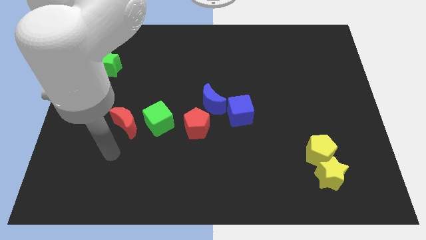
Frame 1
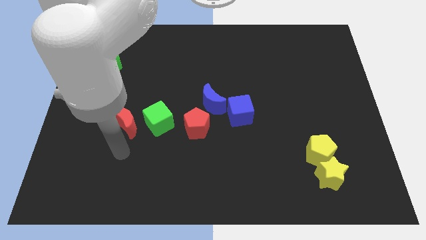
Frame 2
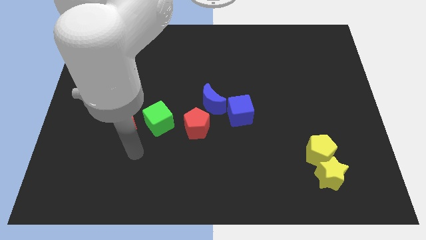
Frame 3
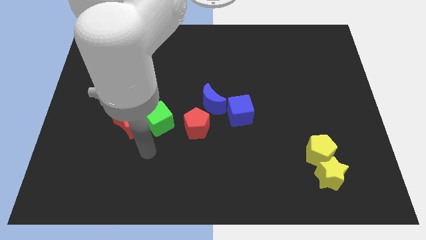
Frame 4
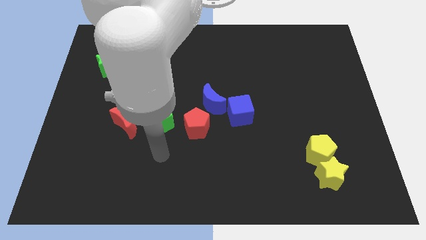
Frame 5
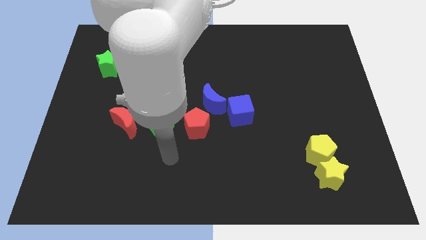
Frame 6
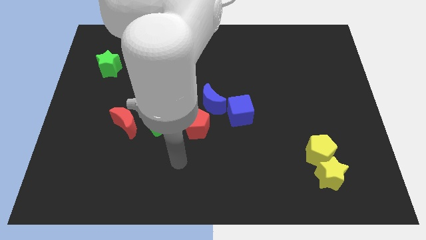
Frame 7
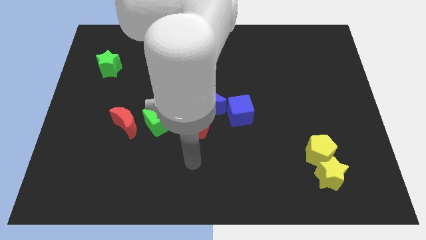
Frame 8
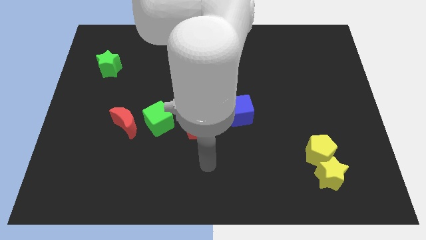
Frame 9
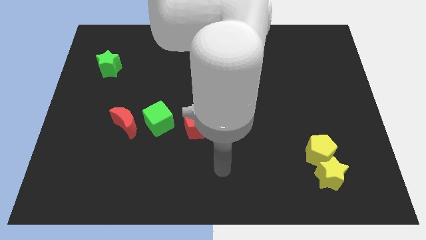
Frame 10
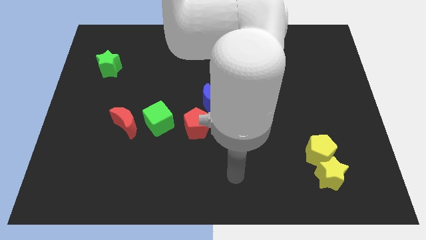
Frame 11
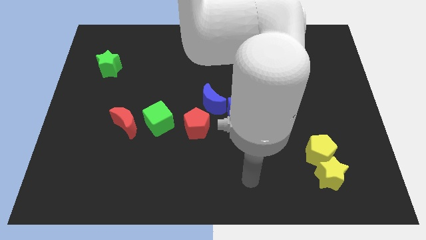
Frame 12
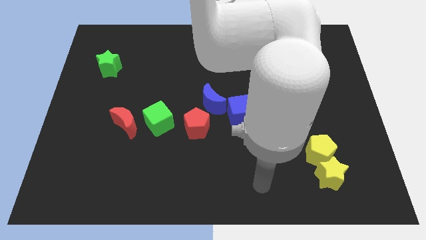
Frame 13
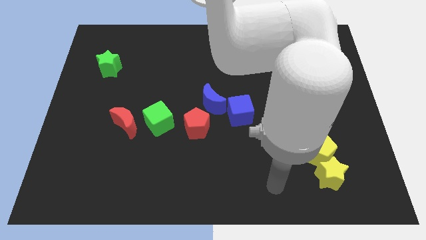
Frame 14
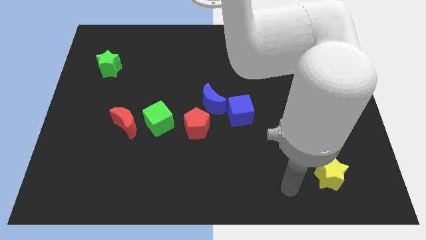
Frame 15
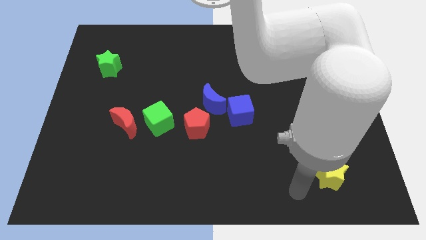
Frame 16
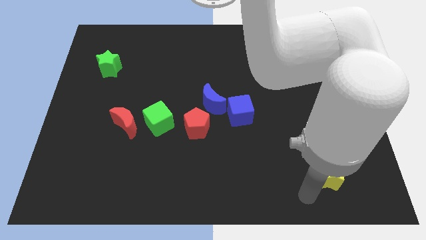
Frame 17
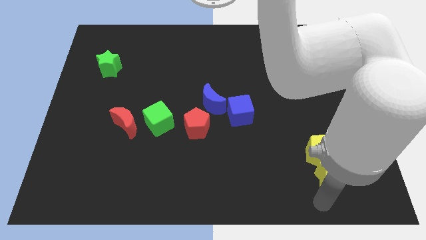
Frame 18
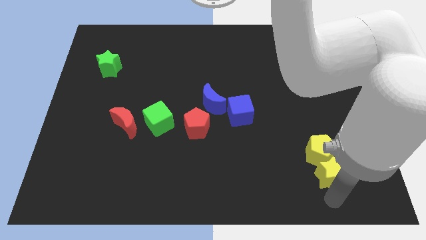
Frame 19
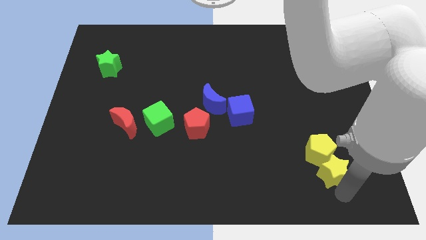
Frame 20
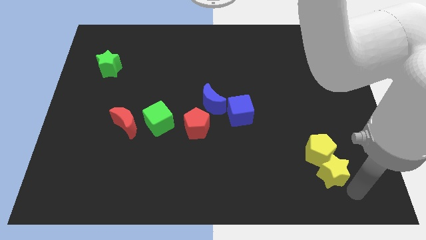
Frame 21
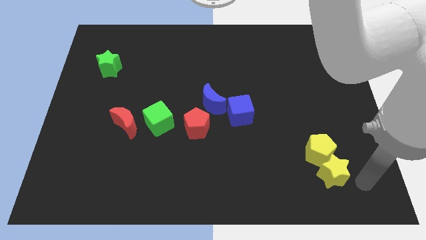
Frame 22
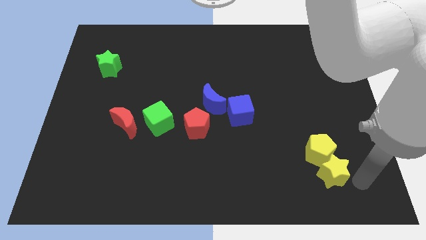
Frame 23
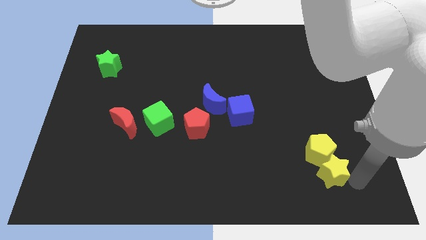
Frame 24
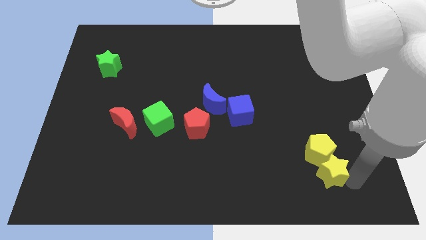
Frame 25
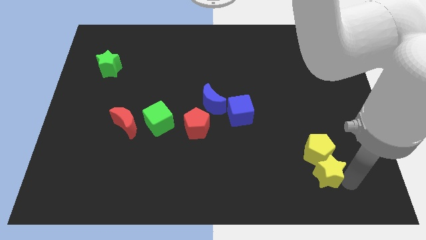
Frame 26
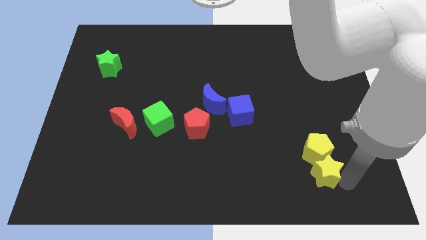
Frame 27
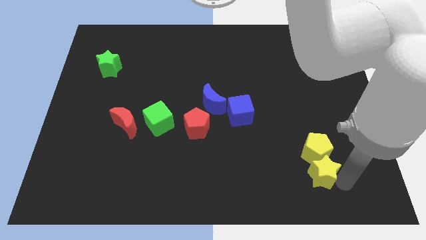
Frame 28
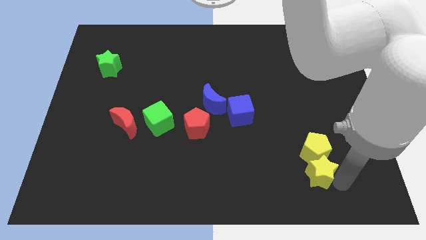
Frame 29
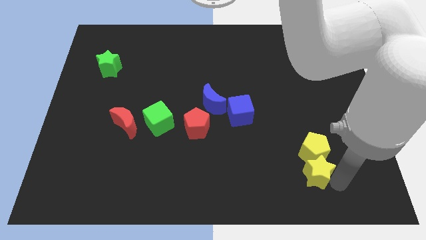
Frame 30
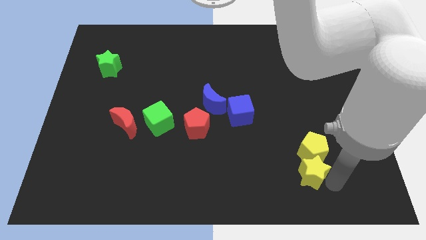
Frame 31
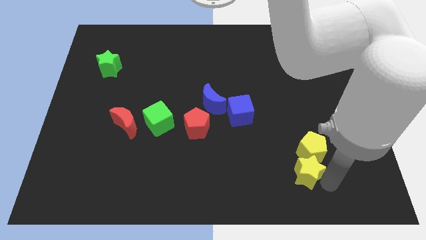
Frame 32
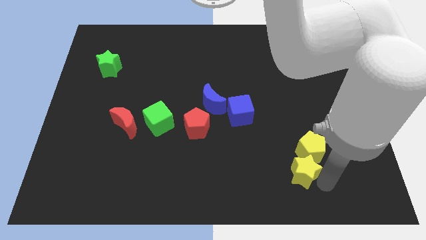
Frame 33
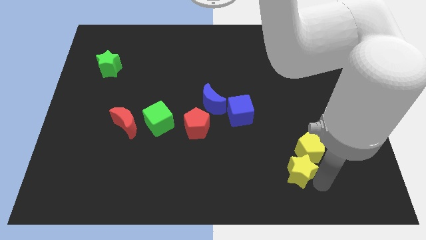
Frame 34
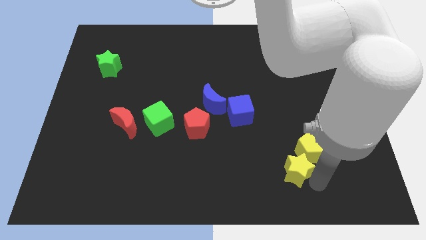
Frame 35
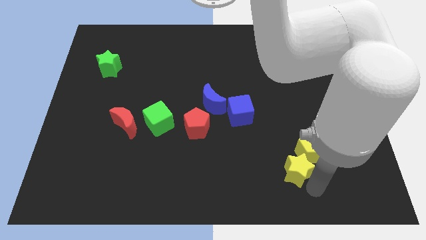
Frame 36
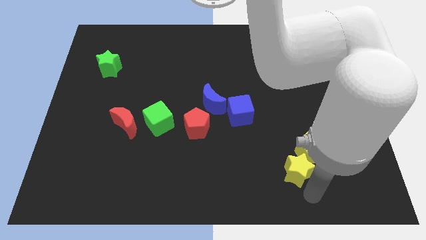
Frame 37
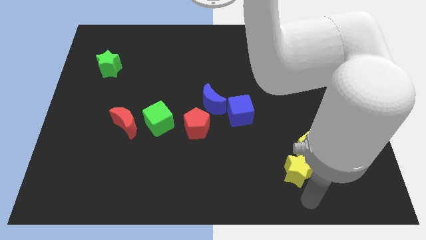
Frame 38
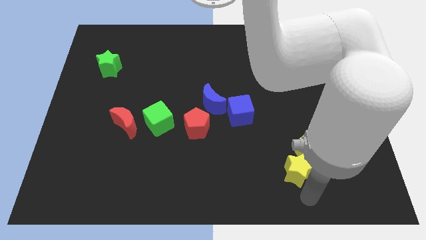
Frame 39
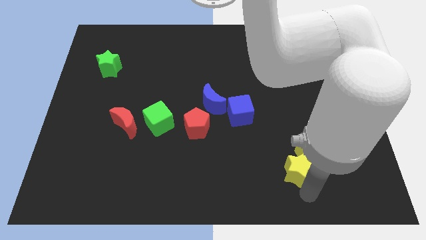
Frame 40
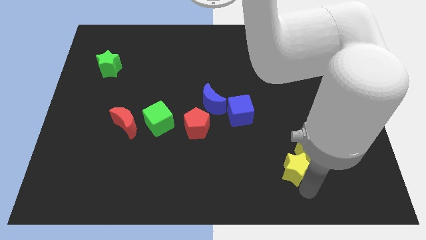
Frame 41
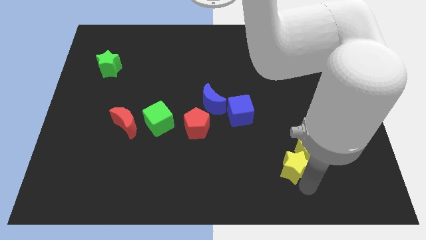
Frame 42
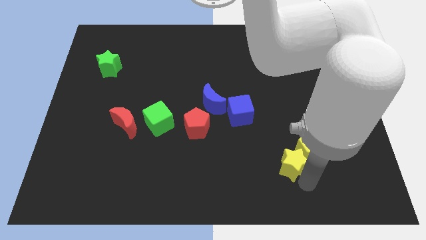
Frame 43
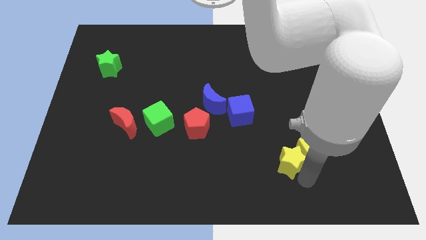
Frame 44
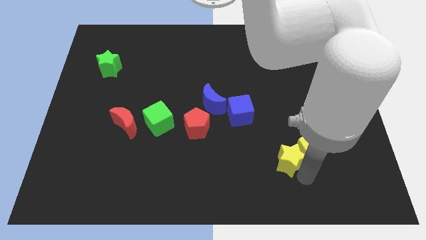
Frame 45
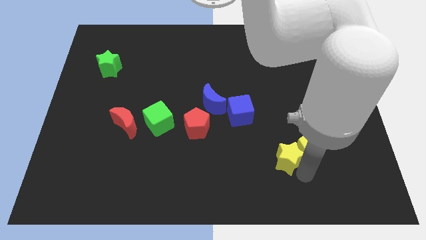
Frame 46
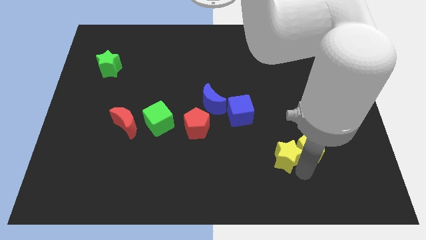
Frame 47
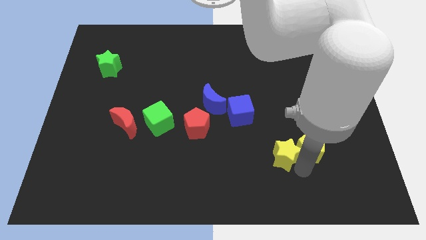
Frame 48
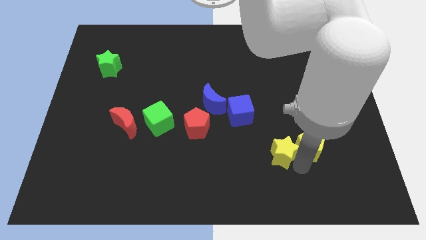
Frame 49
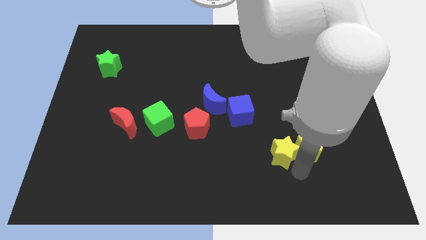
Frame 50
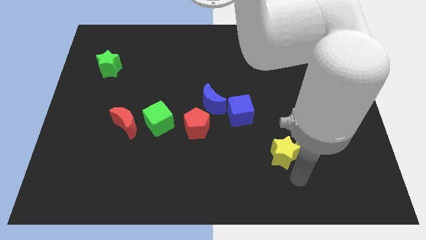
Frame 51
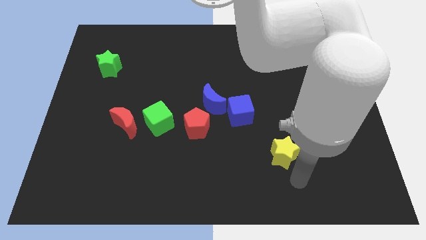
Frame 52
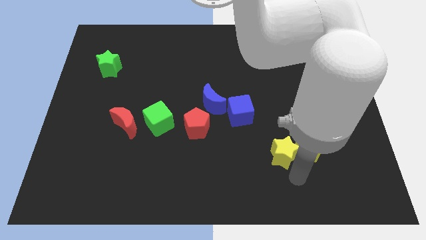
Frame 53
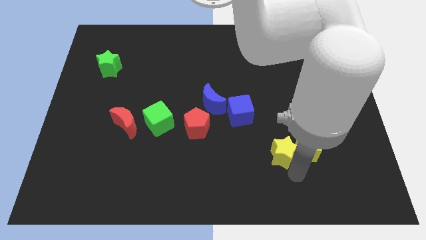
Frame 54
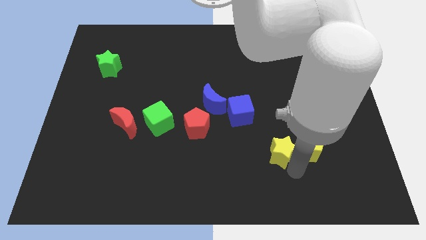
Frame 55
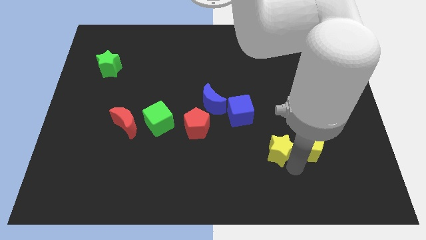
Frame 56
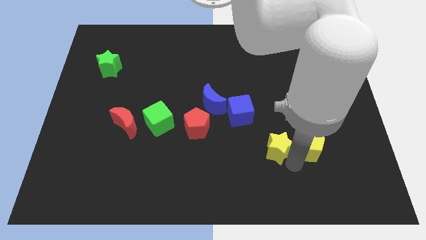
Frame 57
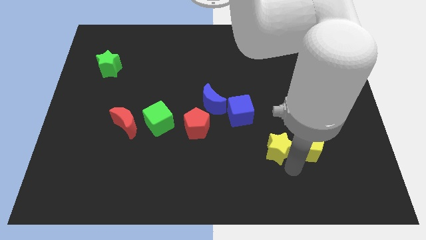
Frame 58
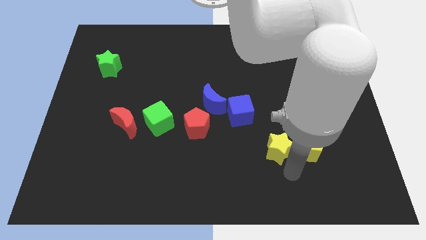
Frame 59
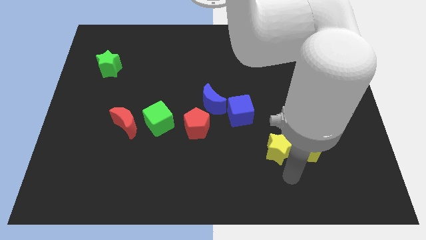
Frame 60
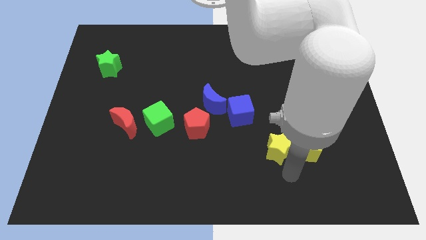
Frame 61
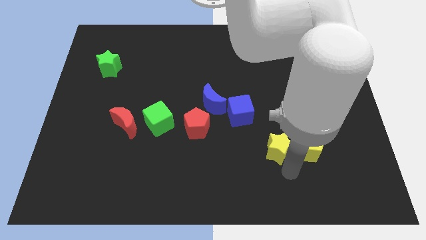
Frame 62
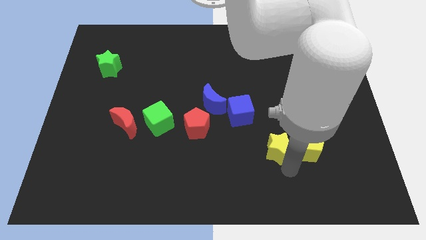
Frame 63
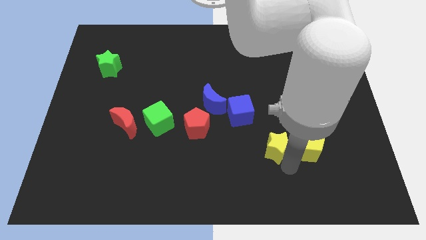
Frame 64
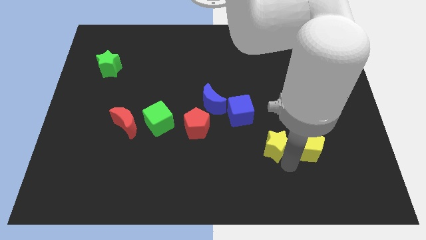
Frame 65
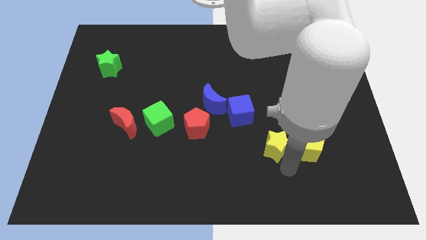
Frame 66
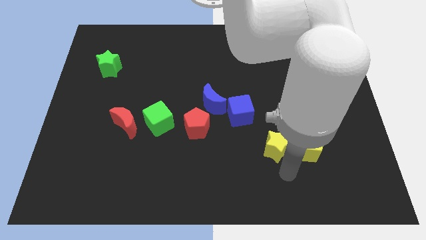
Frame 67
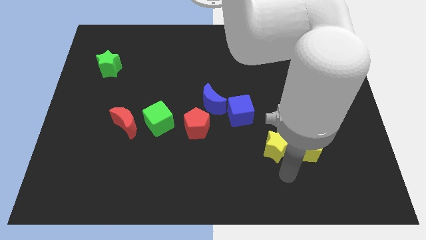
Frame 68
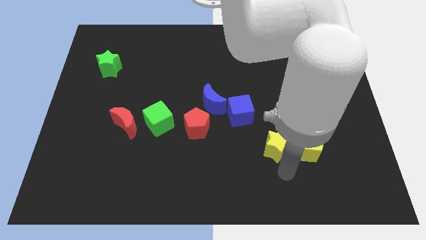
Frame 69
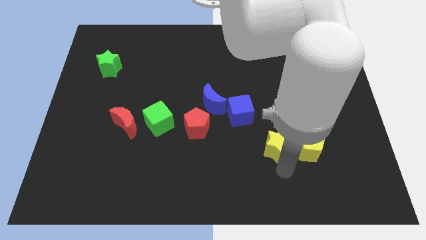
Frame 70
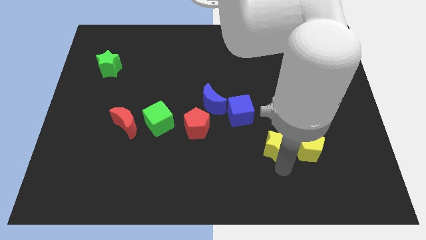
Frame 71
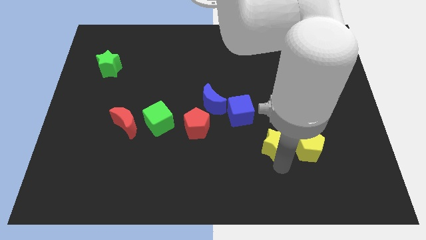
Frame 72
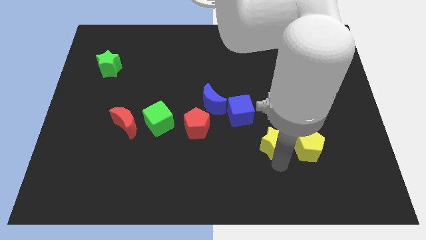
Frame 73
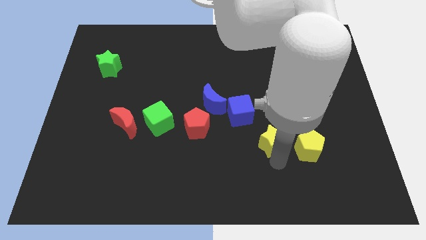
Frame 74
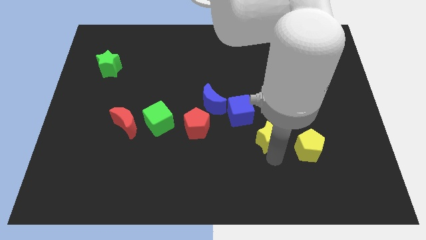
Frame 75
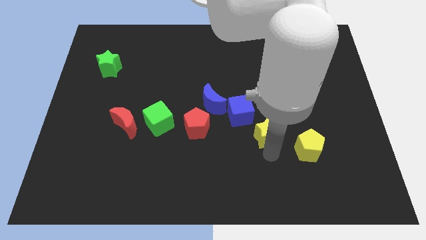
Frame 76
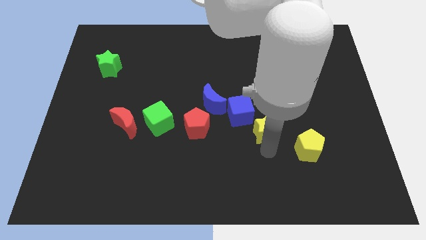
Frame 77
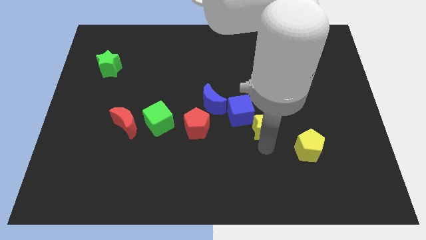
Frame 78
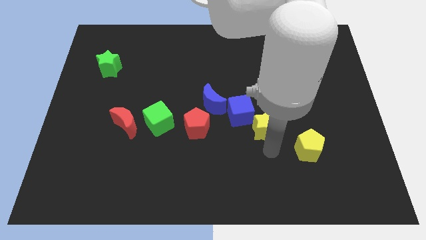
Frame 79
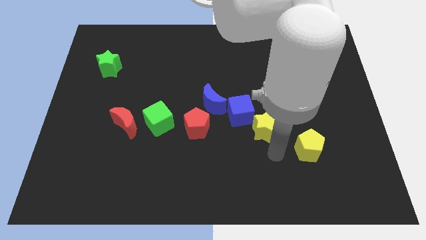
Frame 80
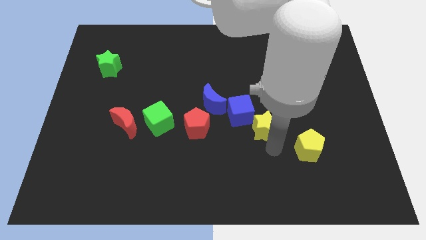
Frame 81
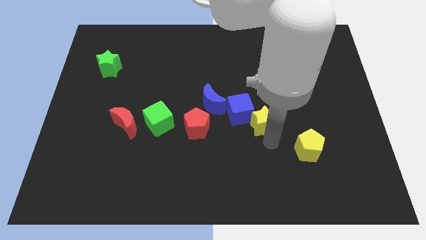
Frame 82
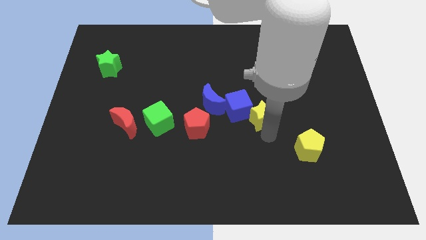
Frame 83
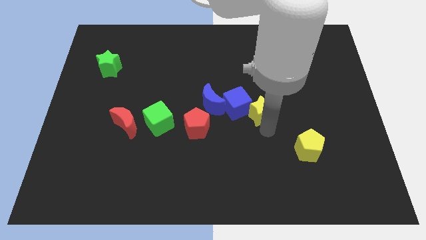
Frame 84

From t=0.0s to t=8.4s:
move the yellow star up and left diagonally
